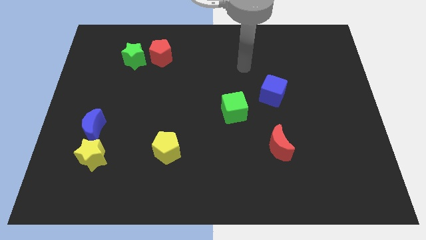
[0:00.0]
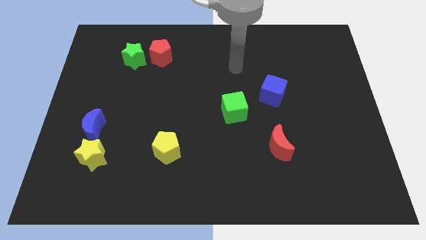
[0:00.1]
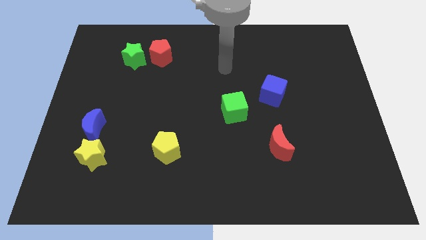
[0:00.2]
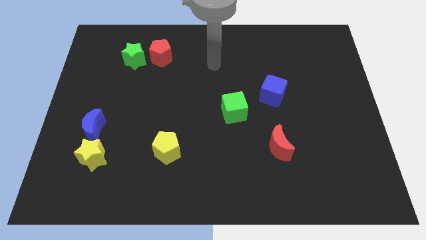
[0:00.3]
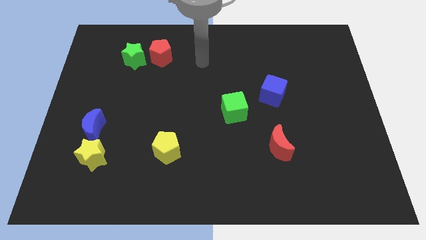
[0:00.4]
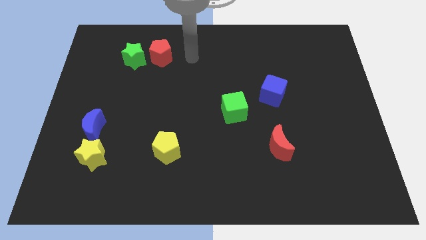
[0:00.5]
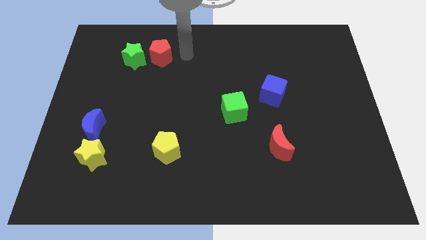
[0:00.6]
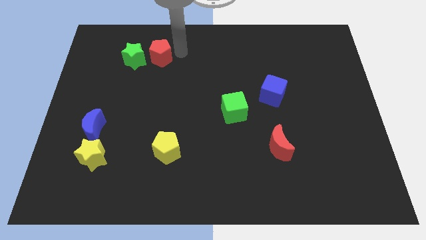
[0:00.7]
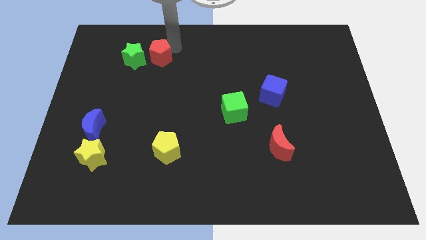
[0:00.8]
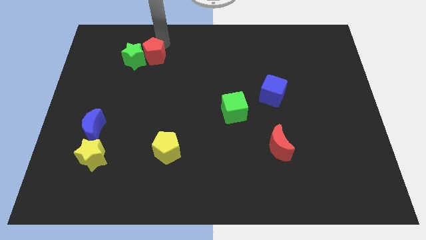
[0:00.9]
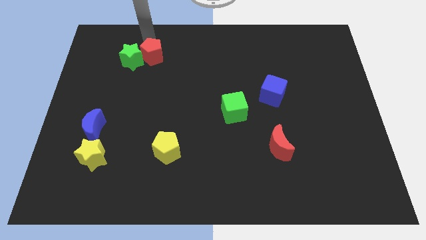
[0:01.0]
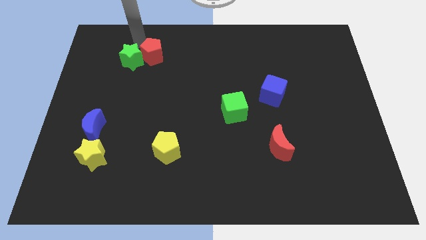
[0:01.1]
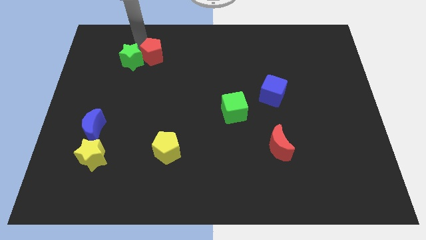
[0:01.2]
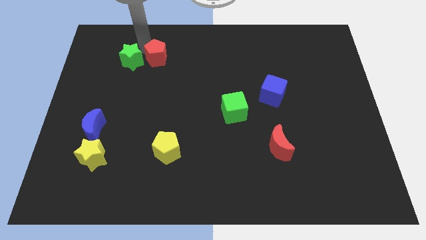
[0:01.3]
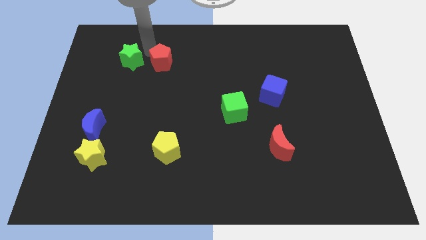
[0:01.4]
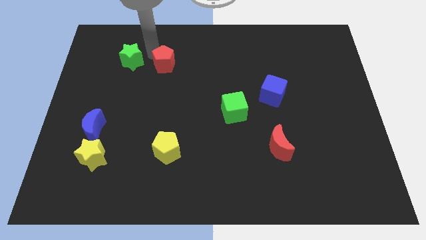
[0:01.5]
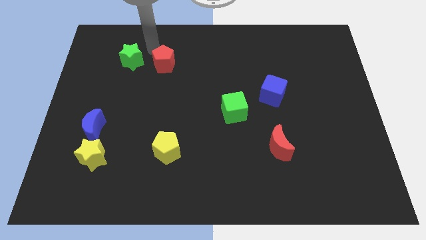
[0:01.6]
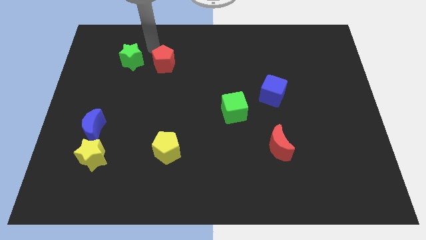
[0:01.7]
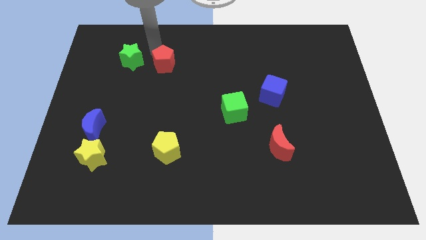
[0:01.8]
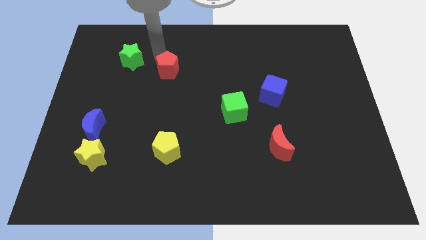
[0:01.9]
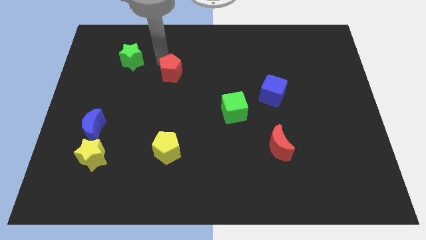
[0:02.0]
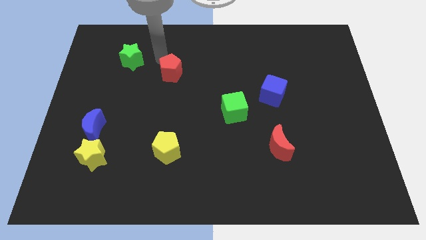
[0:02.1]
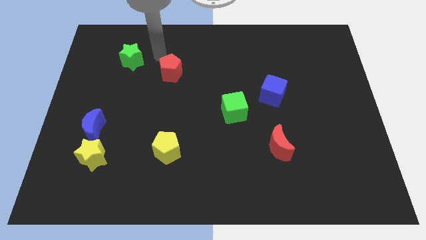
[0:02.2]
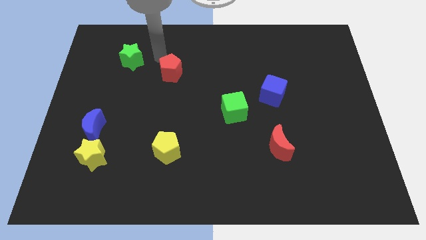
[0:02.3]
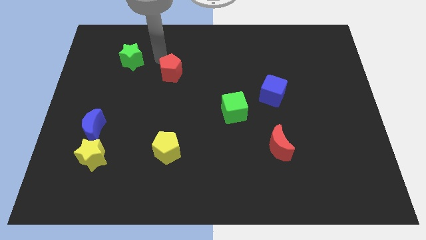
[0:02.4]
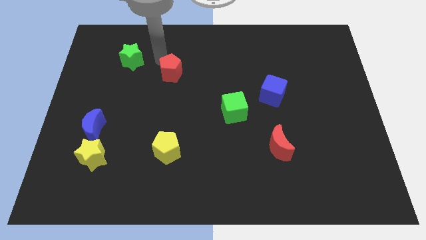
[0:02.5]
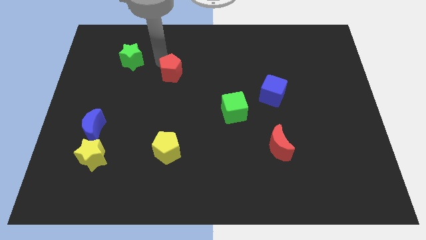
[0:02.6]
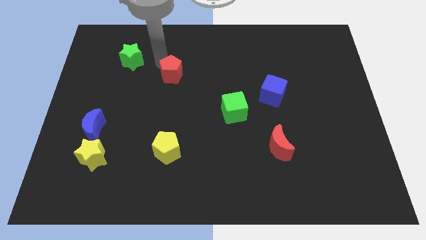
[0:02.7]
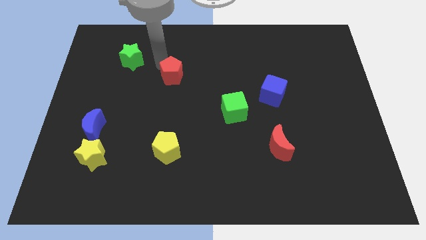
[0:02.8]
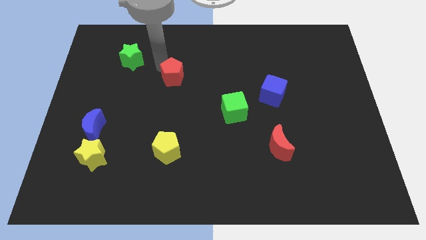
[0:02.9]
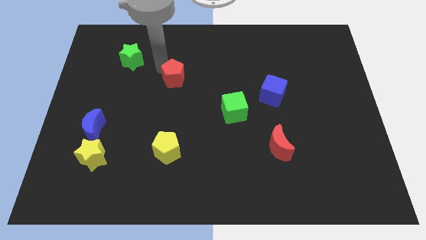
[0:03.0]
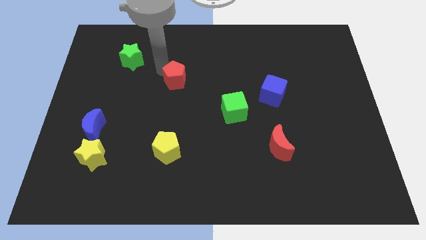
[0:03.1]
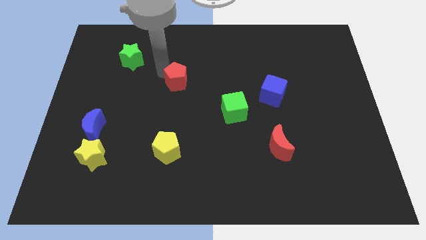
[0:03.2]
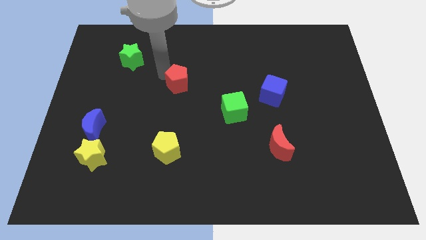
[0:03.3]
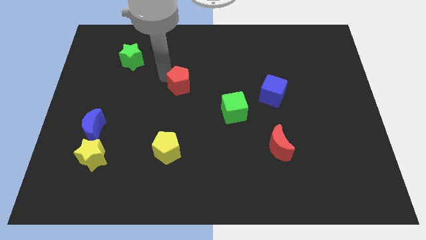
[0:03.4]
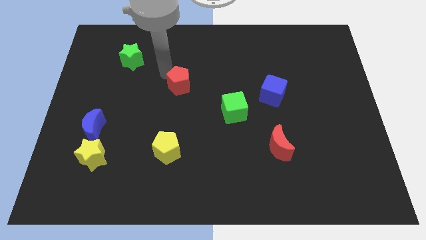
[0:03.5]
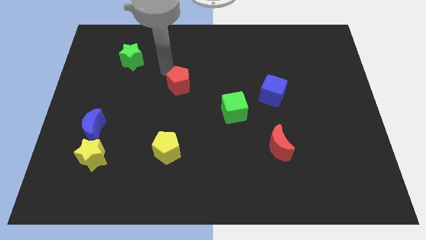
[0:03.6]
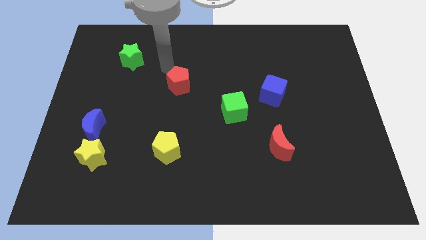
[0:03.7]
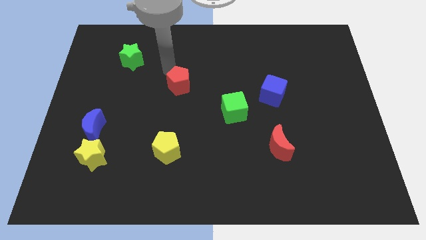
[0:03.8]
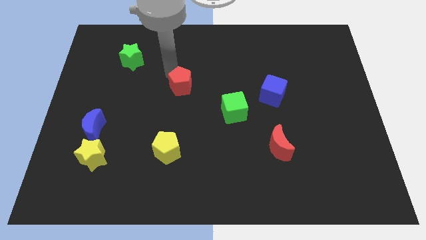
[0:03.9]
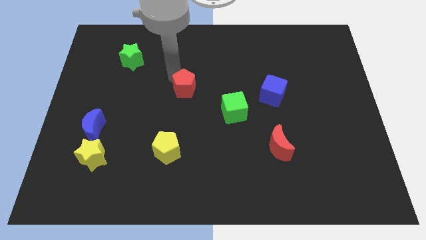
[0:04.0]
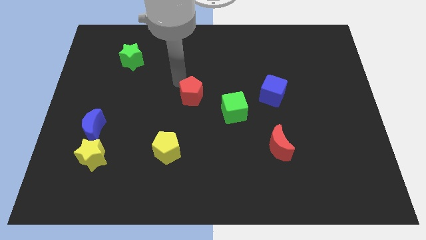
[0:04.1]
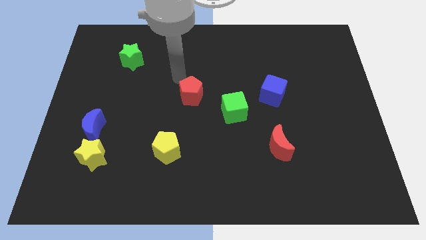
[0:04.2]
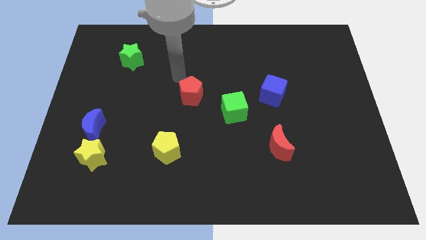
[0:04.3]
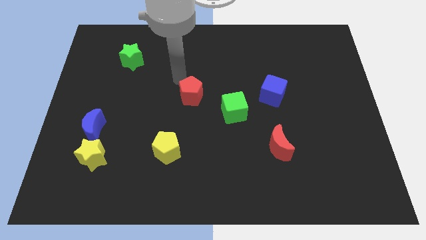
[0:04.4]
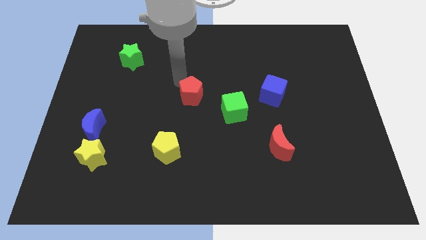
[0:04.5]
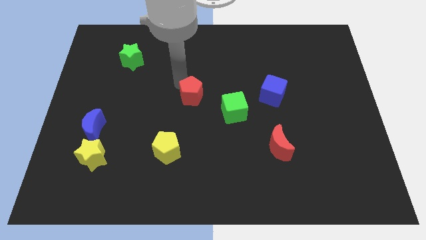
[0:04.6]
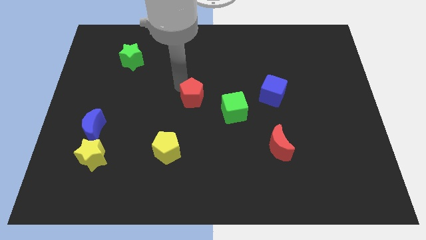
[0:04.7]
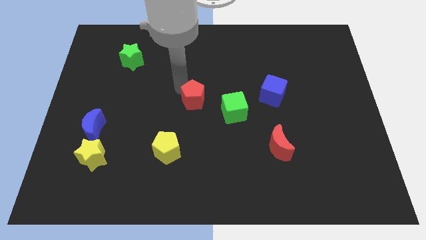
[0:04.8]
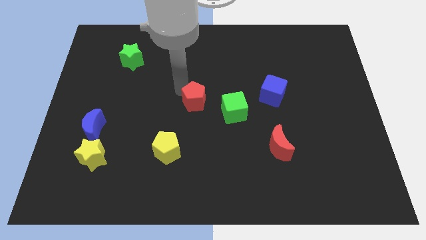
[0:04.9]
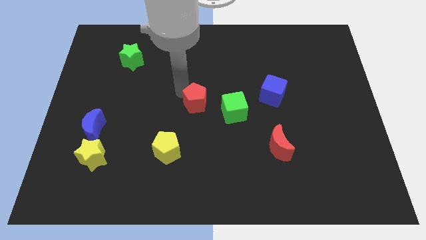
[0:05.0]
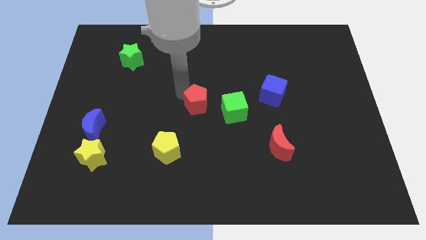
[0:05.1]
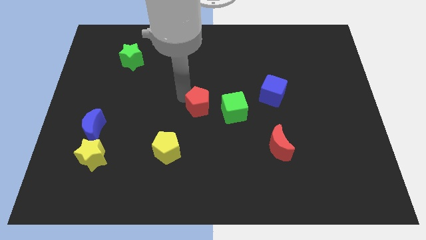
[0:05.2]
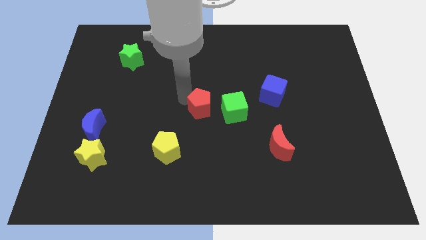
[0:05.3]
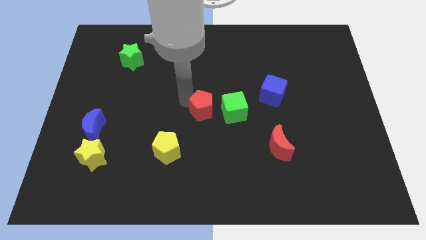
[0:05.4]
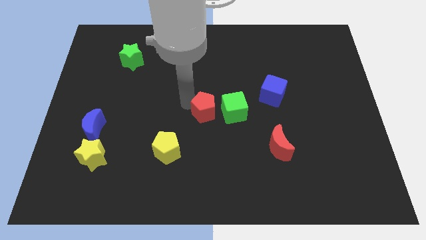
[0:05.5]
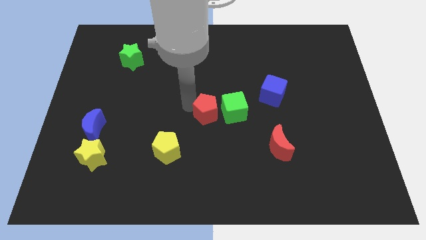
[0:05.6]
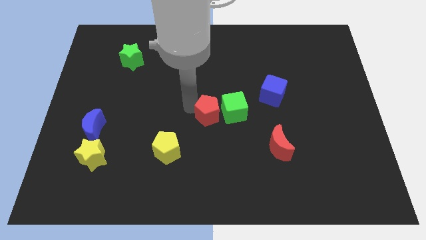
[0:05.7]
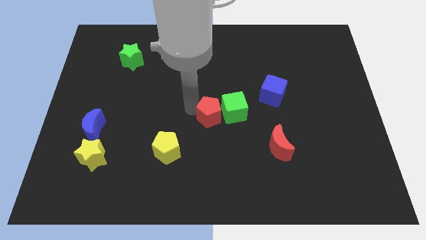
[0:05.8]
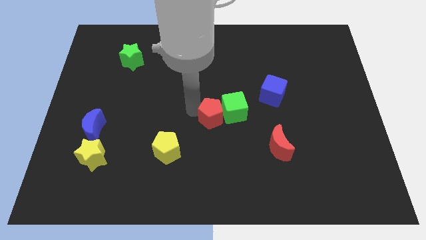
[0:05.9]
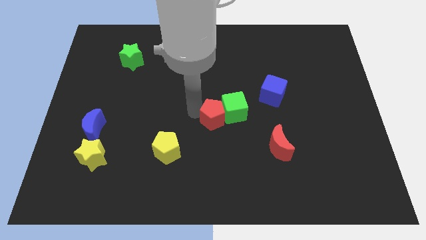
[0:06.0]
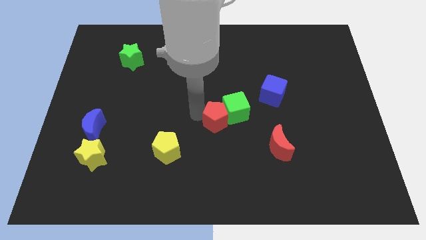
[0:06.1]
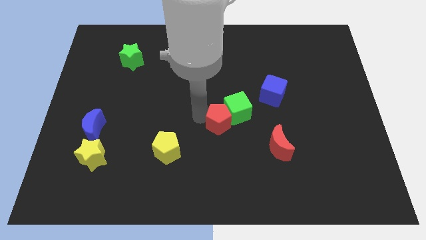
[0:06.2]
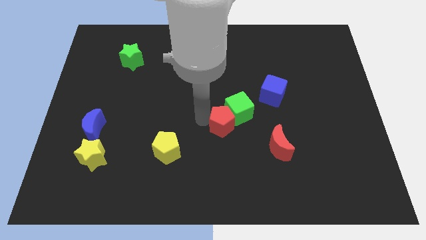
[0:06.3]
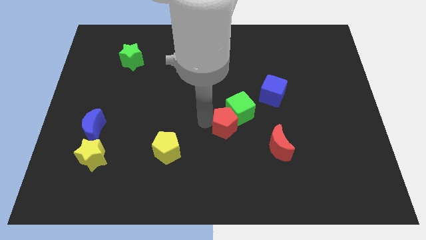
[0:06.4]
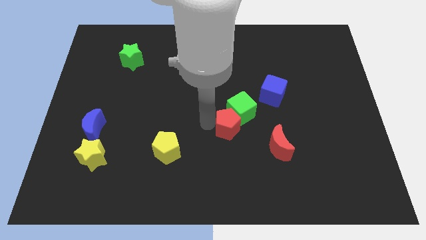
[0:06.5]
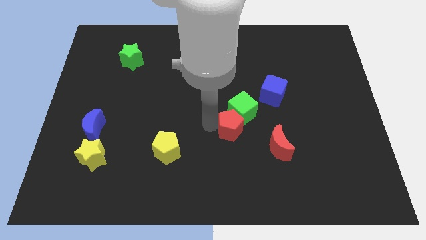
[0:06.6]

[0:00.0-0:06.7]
put the red pentagon diagonally up and to the left of the red moon
